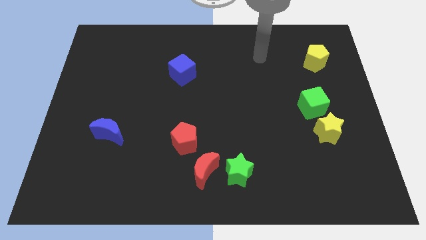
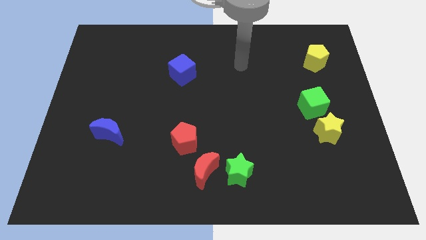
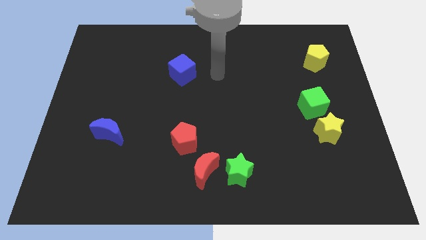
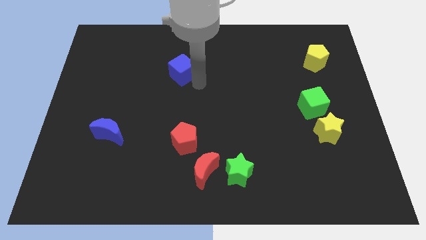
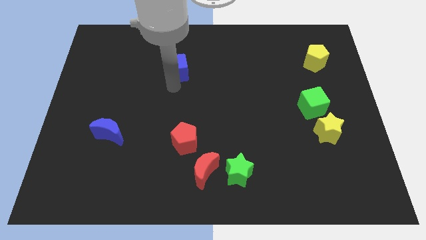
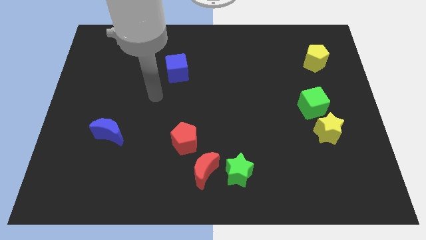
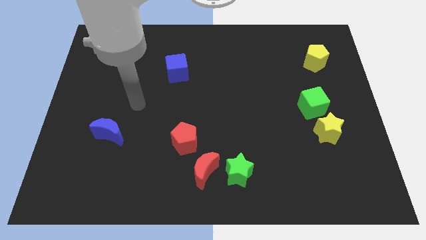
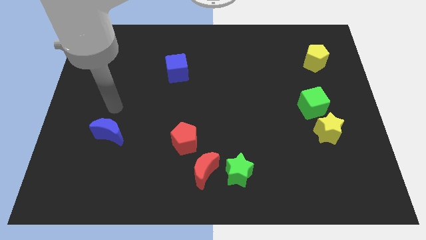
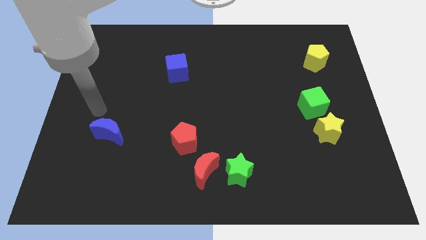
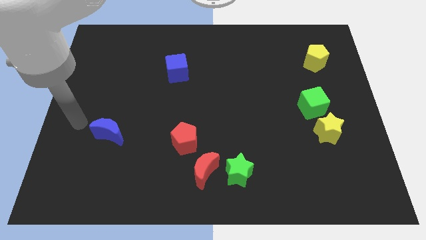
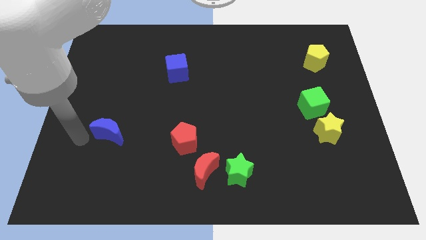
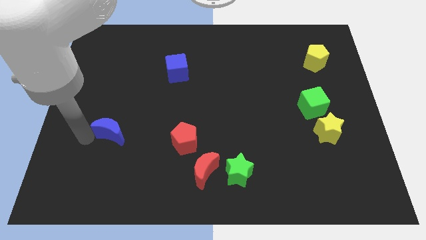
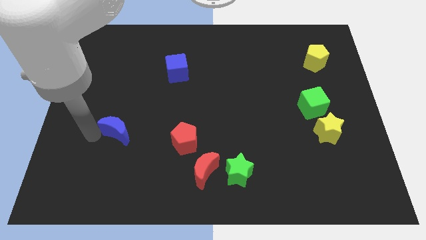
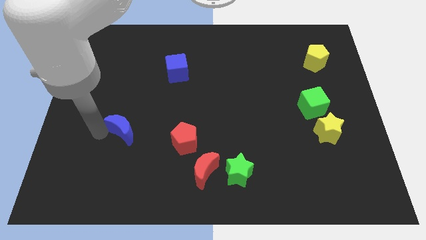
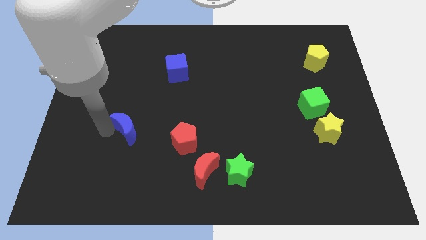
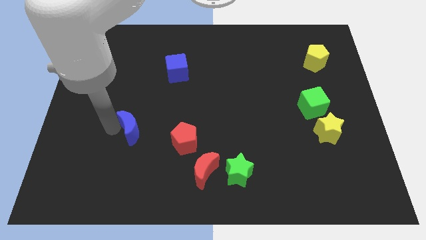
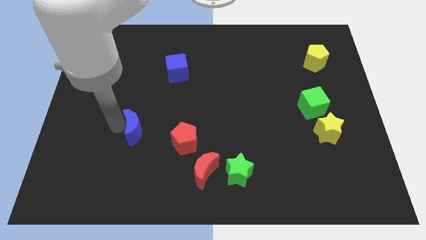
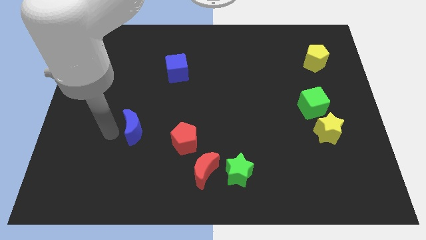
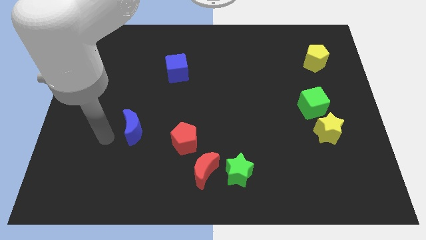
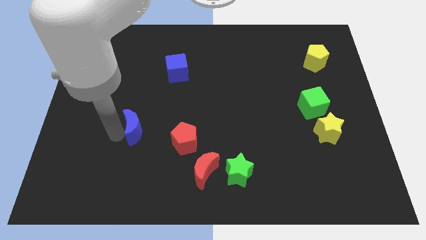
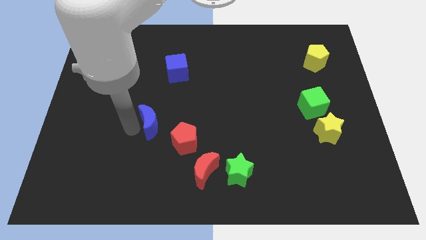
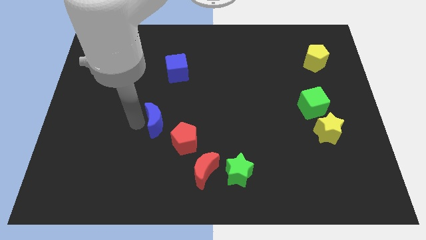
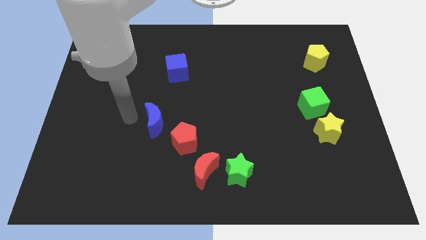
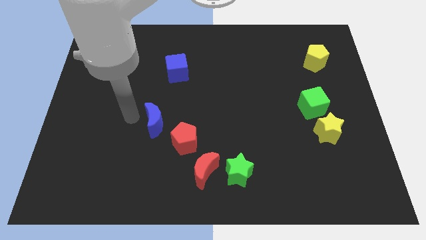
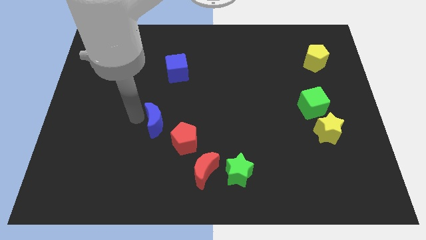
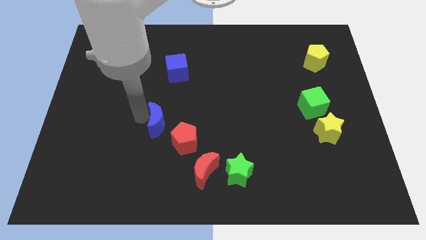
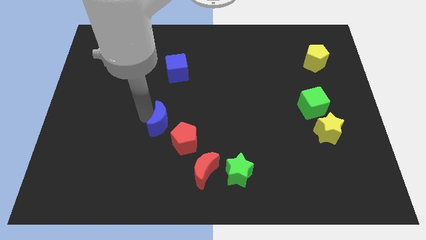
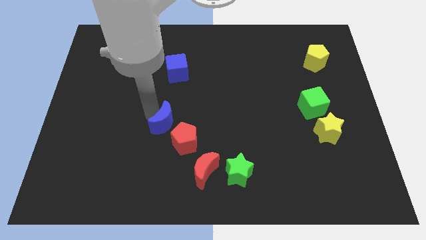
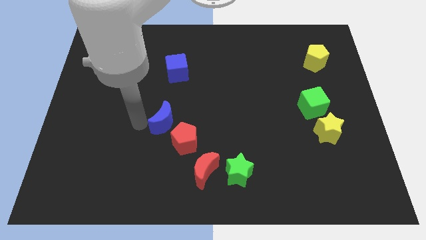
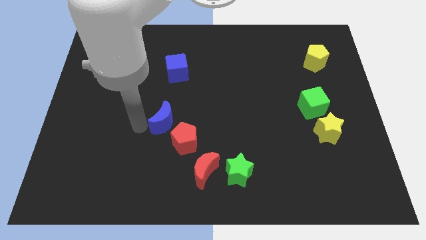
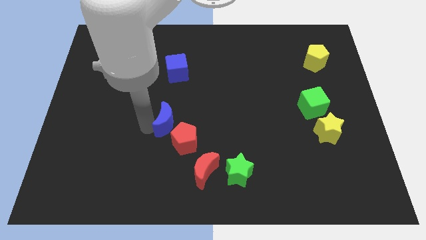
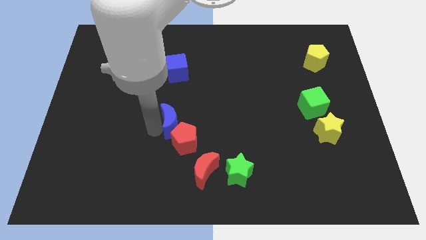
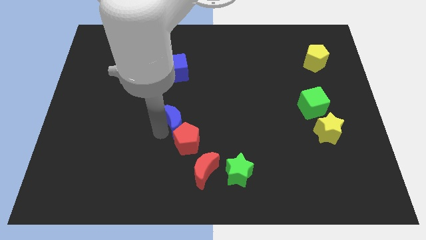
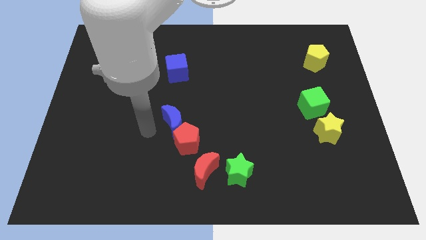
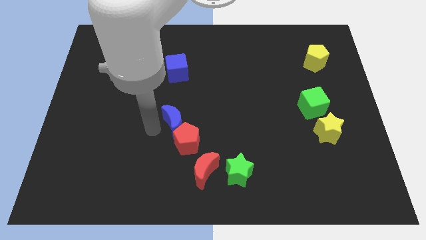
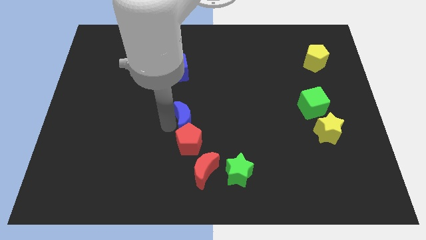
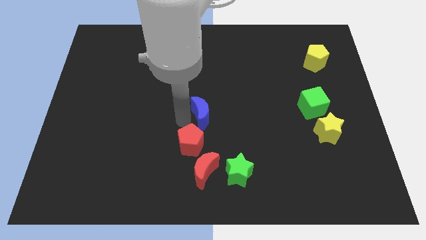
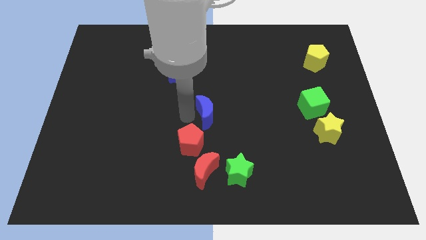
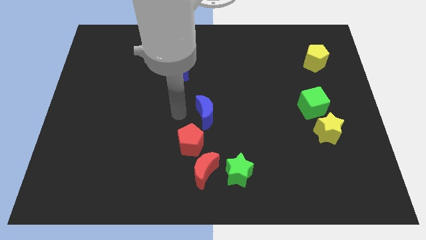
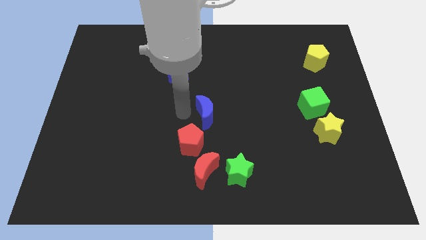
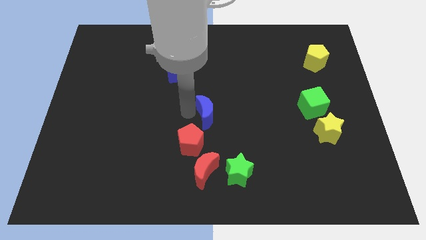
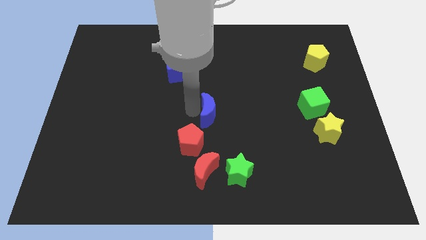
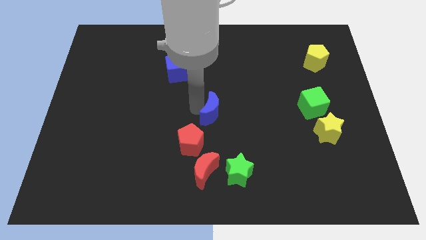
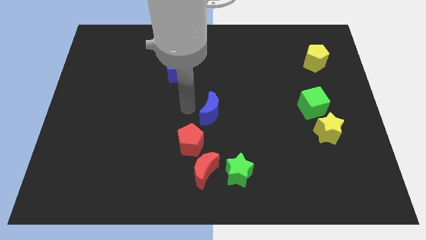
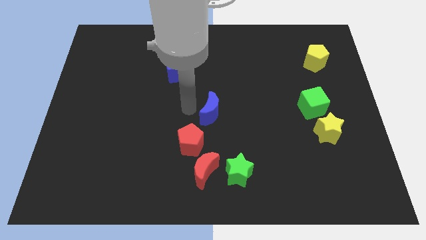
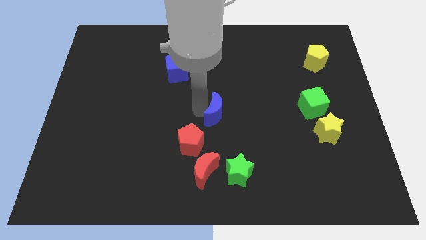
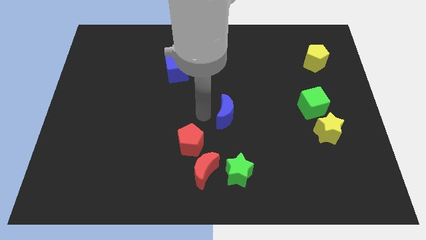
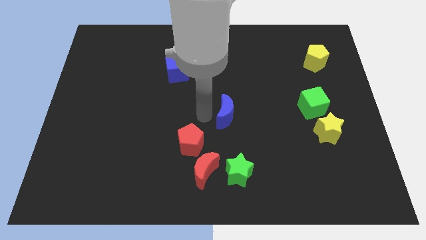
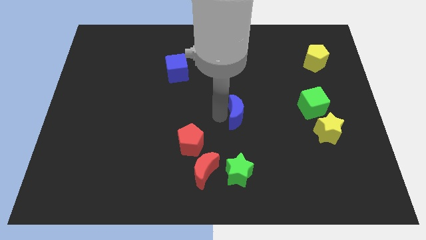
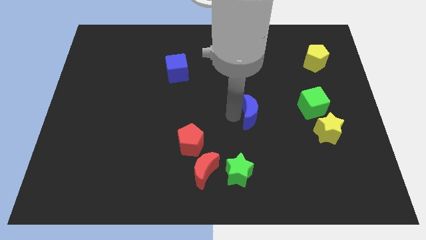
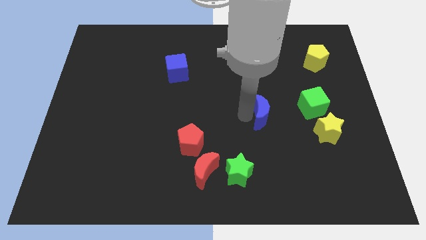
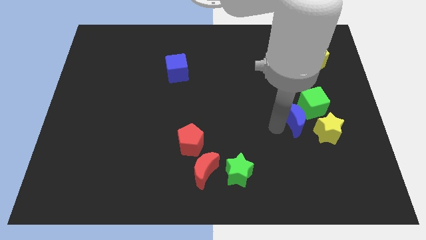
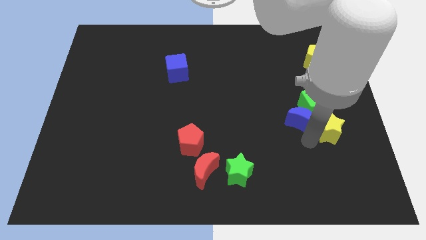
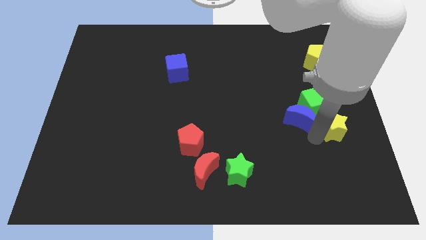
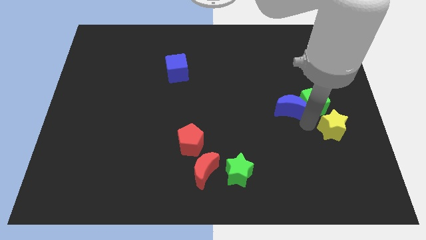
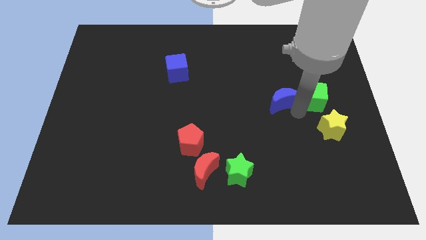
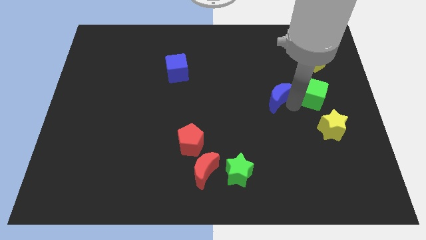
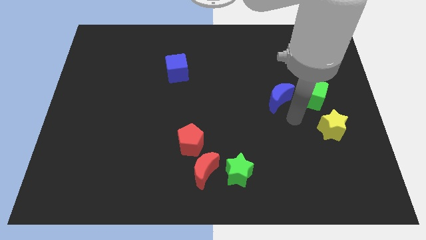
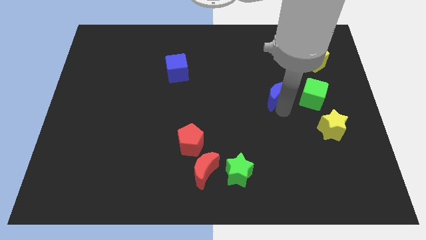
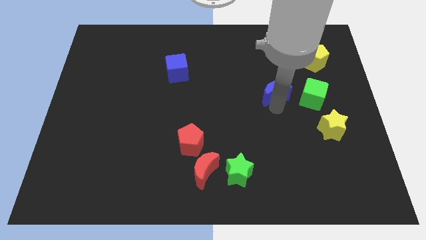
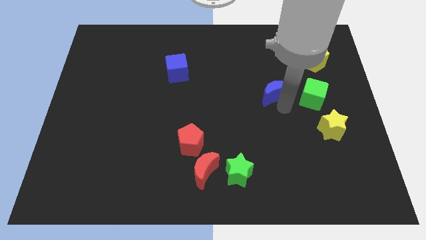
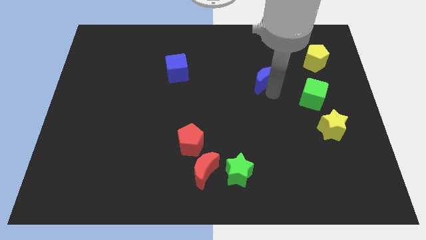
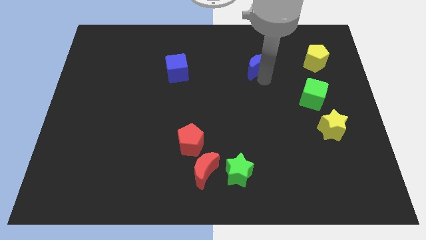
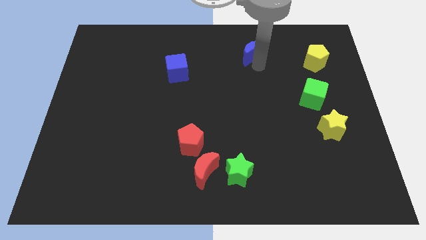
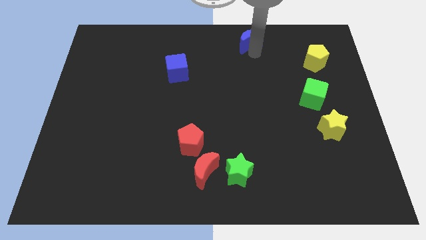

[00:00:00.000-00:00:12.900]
push the blue moon to the top side

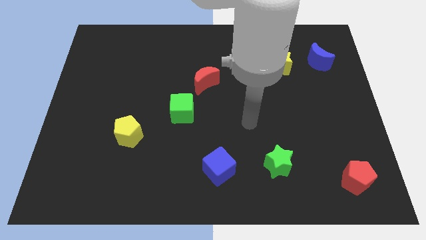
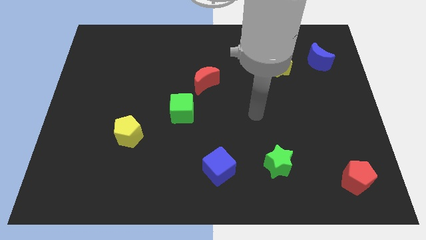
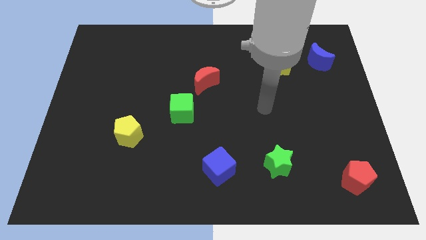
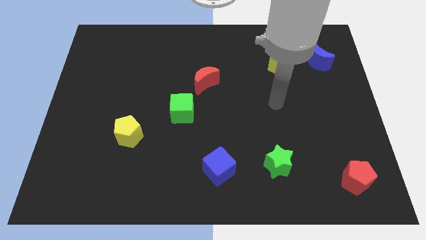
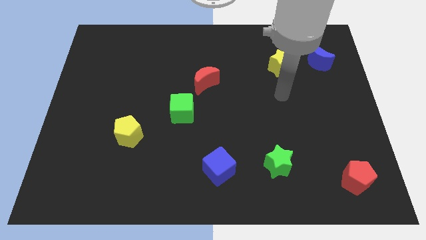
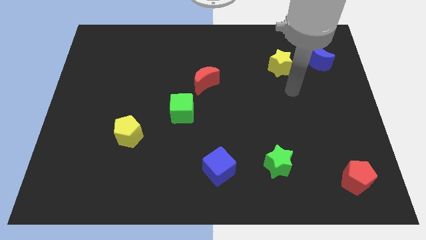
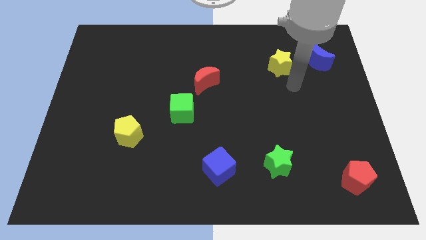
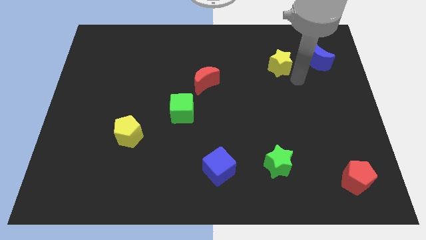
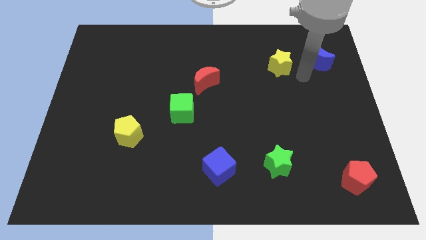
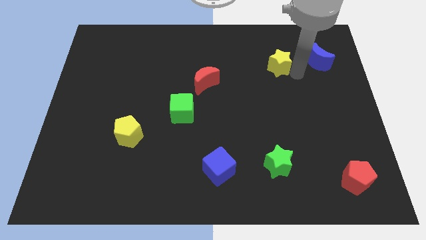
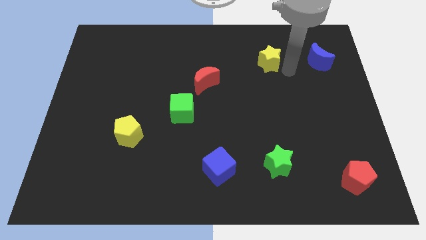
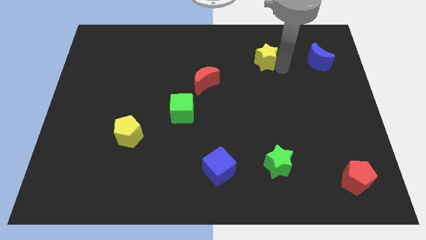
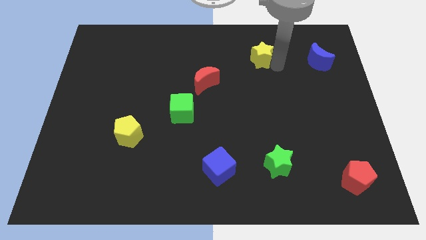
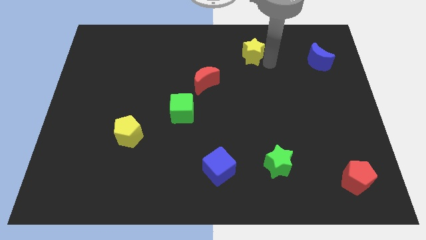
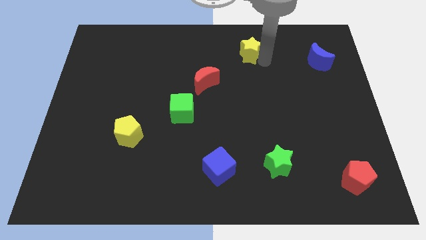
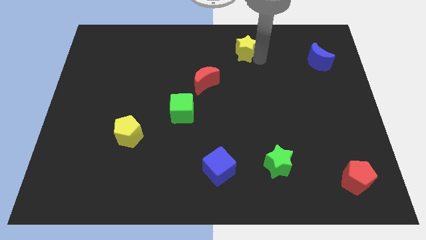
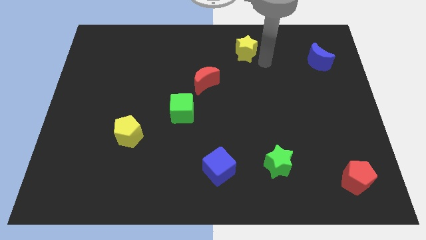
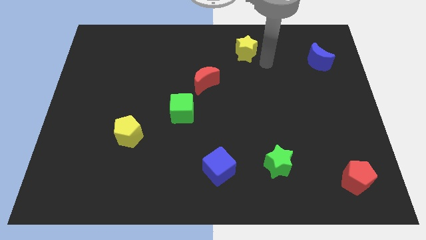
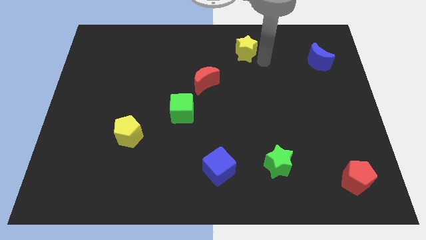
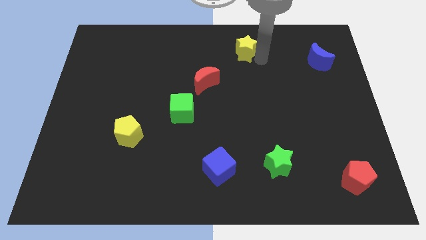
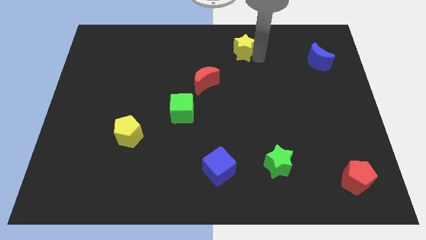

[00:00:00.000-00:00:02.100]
move the yellow star to the towards your base
